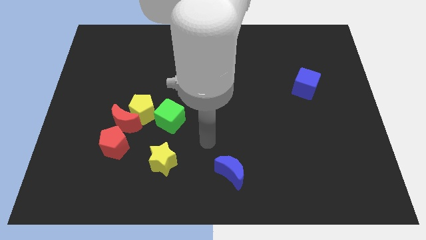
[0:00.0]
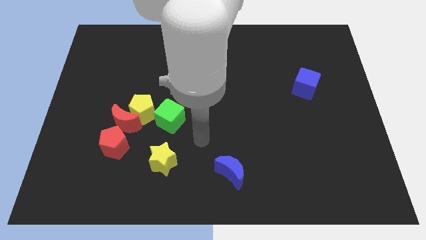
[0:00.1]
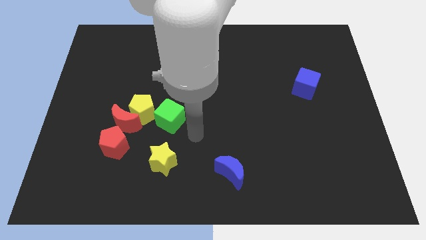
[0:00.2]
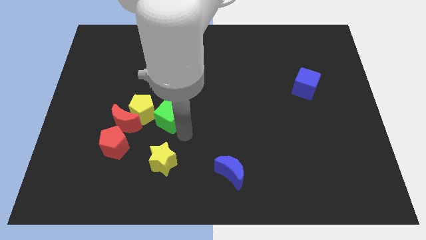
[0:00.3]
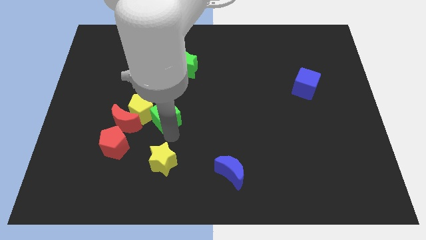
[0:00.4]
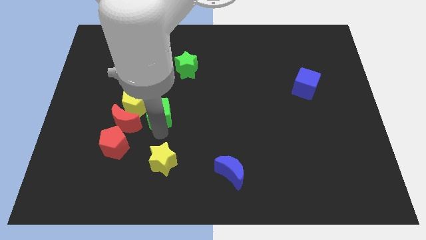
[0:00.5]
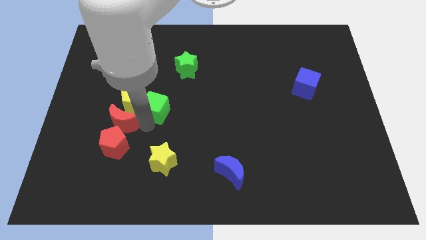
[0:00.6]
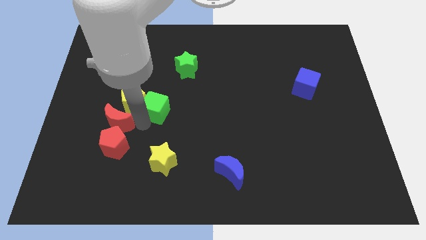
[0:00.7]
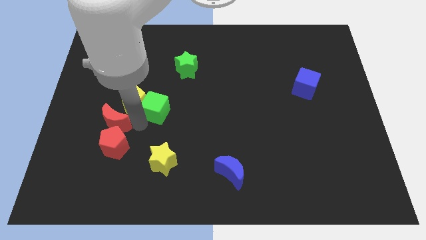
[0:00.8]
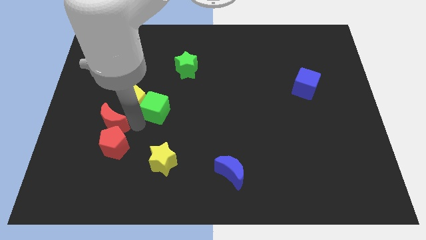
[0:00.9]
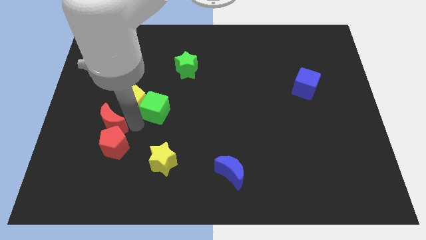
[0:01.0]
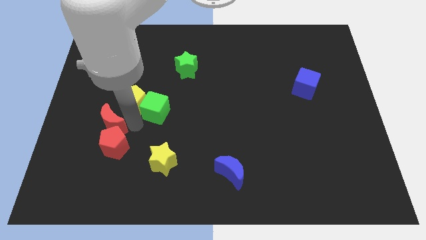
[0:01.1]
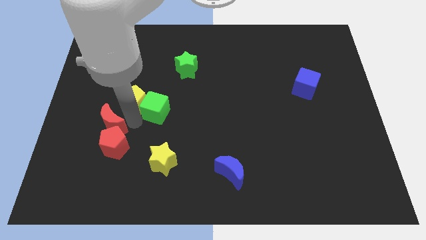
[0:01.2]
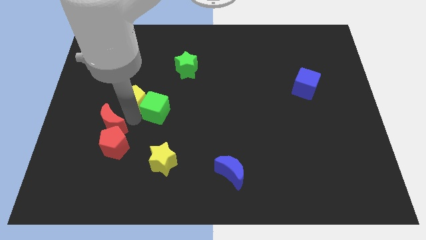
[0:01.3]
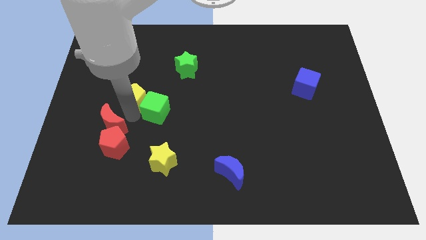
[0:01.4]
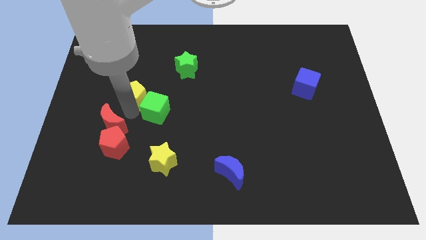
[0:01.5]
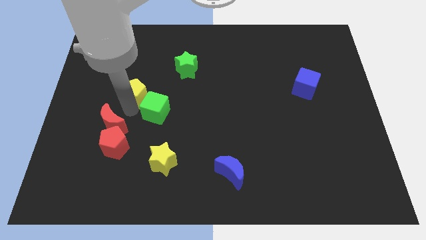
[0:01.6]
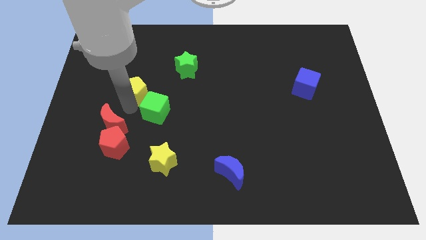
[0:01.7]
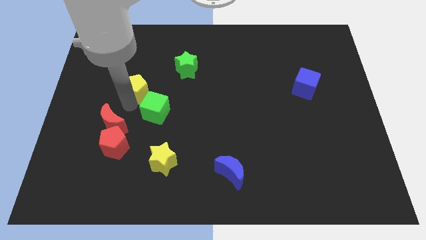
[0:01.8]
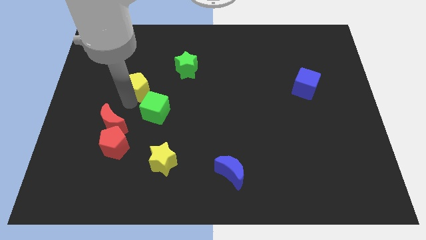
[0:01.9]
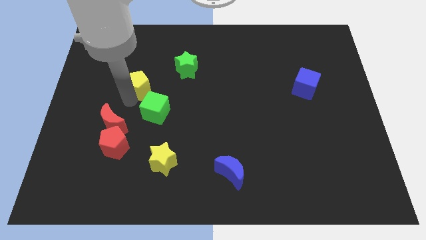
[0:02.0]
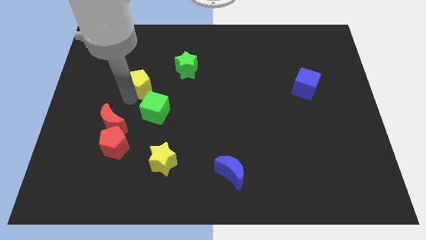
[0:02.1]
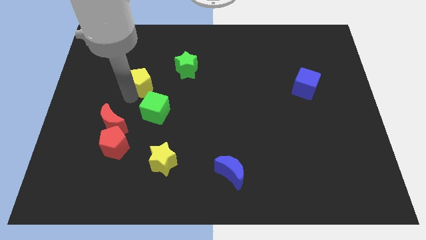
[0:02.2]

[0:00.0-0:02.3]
move the yellow pentagon away from the red moon and green cube

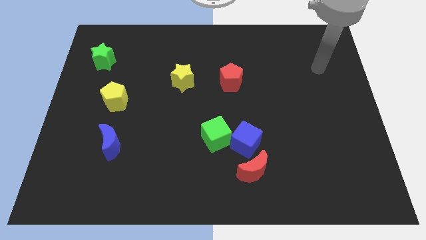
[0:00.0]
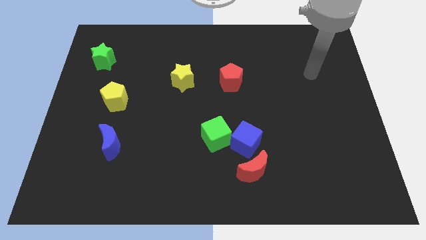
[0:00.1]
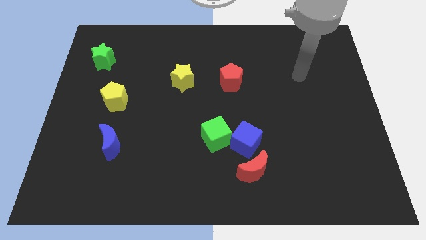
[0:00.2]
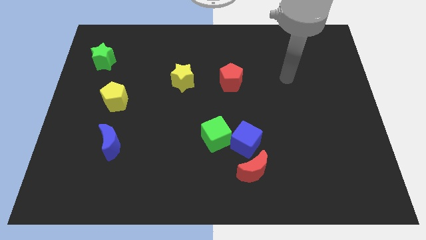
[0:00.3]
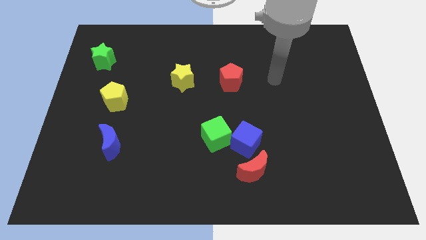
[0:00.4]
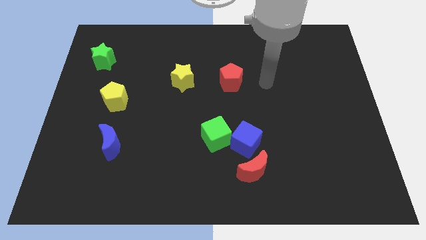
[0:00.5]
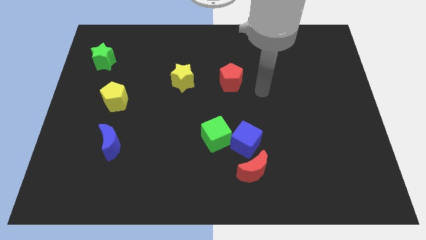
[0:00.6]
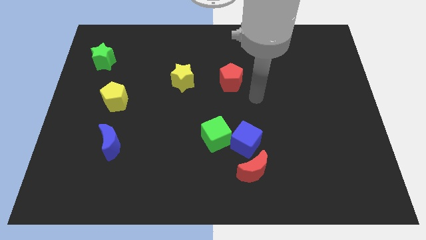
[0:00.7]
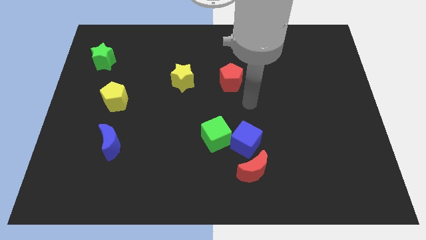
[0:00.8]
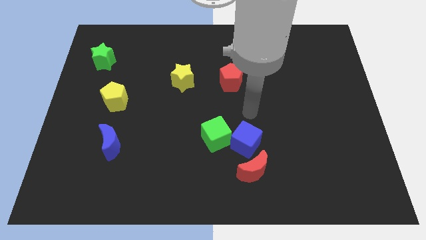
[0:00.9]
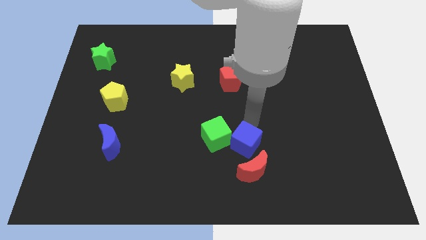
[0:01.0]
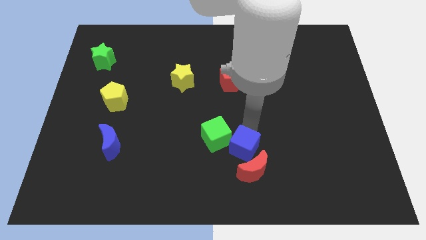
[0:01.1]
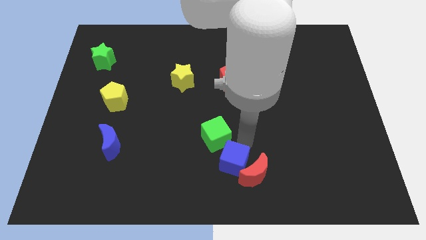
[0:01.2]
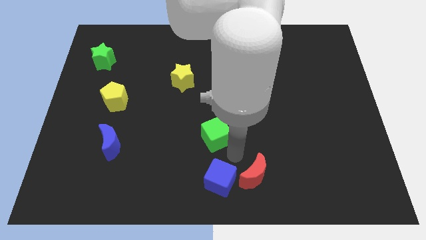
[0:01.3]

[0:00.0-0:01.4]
move the green cube away from the blue cube

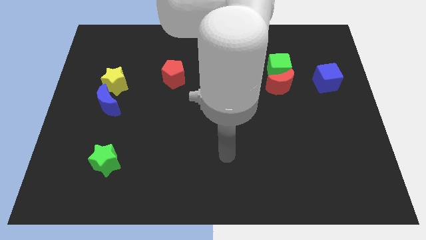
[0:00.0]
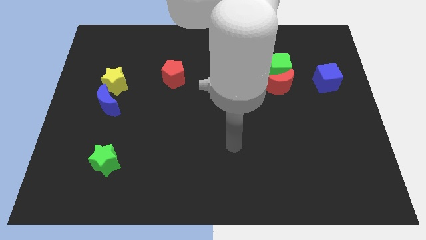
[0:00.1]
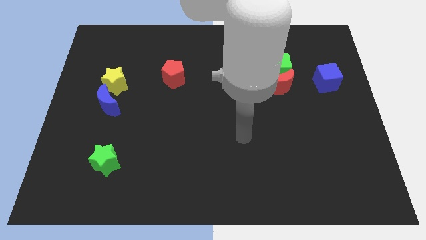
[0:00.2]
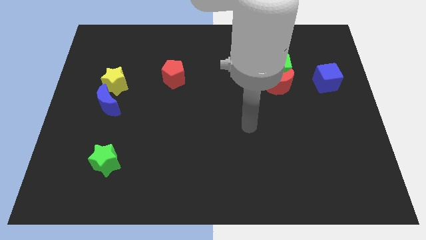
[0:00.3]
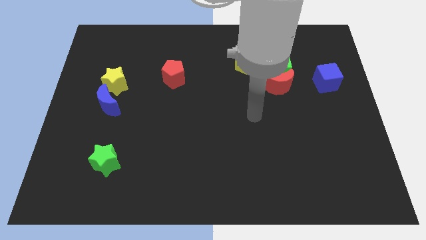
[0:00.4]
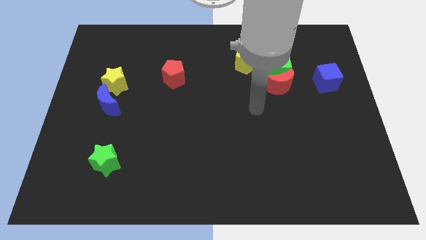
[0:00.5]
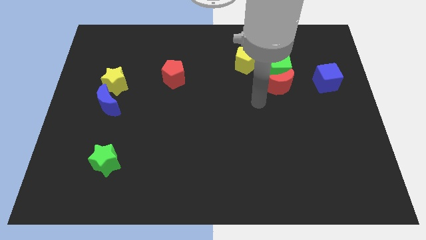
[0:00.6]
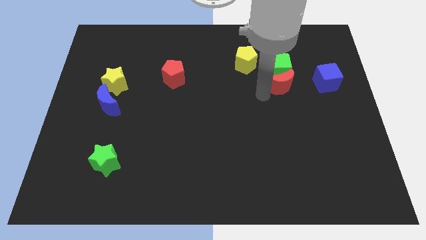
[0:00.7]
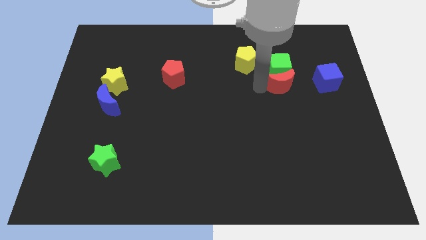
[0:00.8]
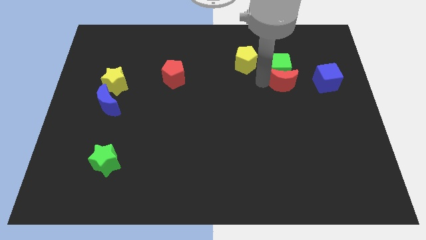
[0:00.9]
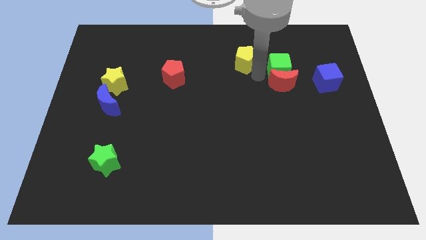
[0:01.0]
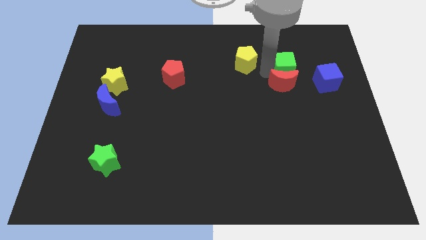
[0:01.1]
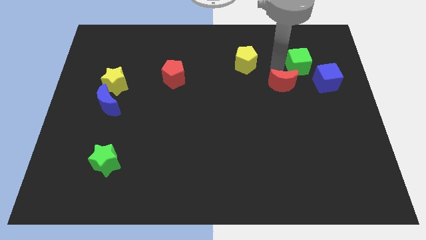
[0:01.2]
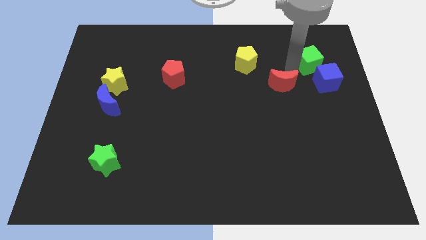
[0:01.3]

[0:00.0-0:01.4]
move the red moon away from the green cube

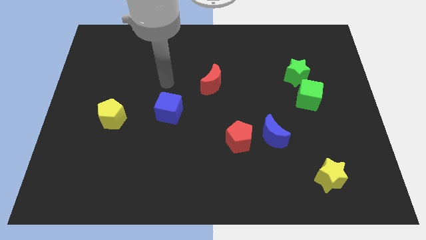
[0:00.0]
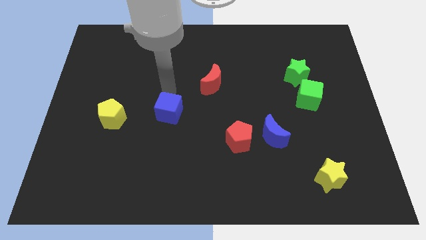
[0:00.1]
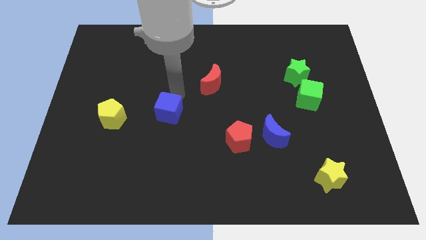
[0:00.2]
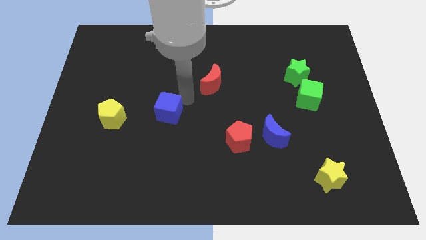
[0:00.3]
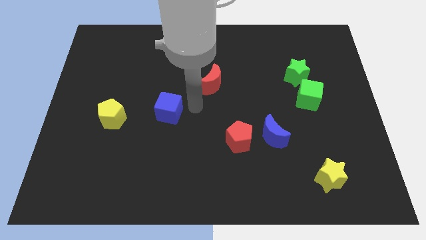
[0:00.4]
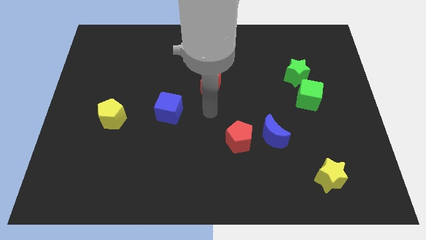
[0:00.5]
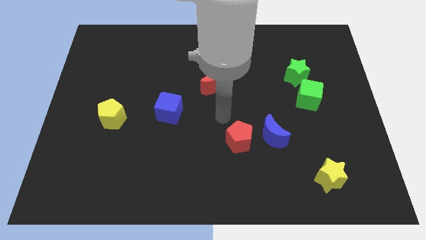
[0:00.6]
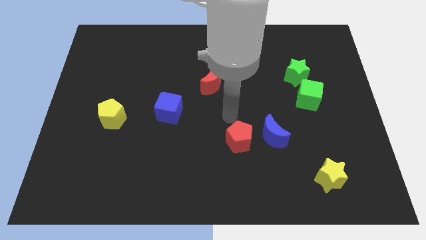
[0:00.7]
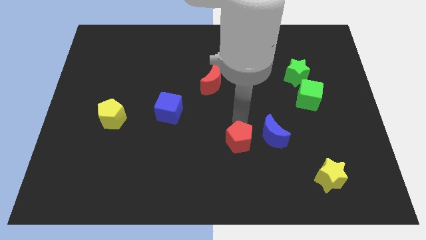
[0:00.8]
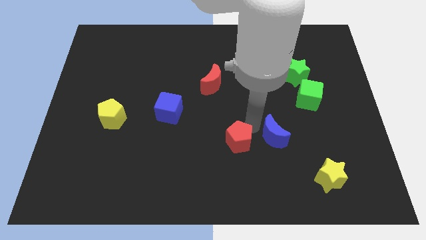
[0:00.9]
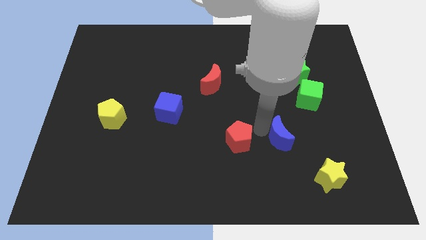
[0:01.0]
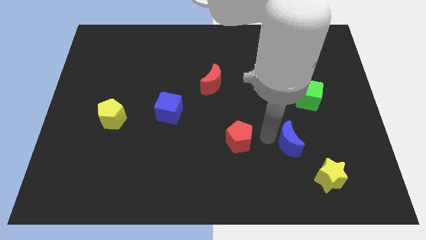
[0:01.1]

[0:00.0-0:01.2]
pull the red pentagon apart from the blue moon

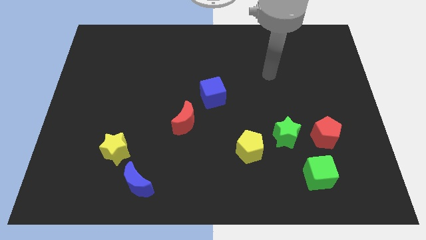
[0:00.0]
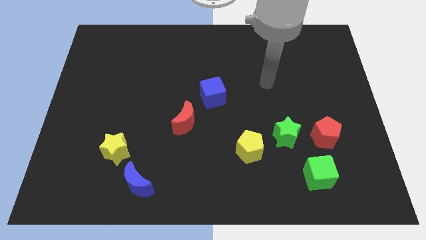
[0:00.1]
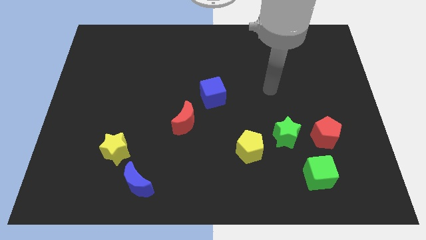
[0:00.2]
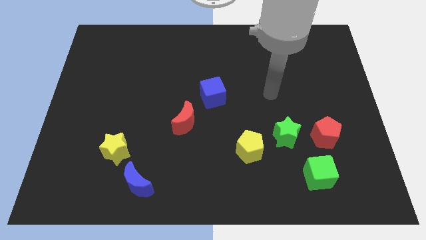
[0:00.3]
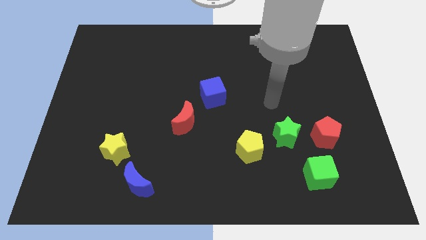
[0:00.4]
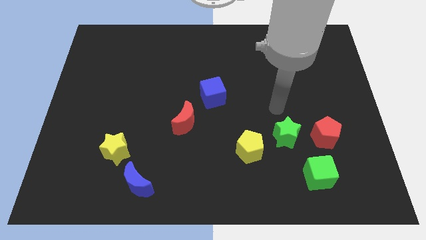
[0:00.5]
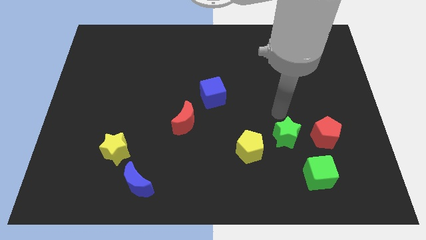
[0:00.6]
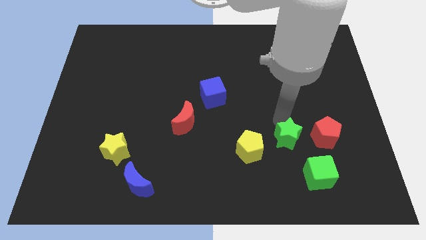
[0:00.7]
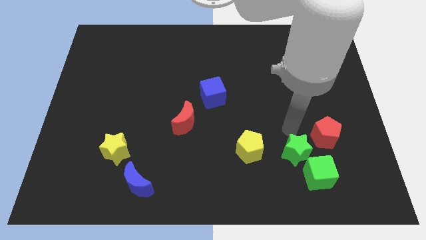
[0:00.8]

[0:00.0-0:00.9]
move the yellow pentagon away from the green star

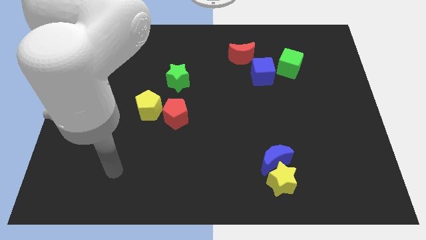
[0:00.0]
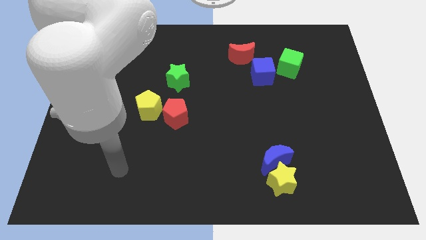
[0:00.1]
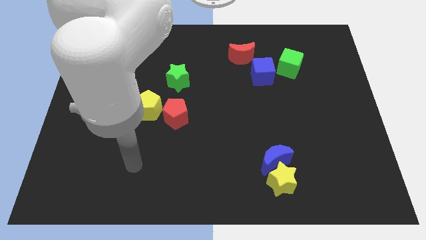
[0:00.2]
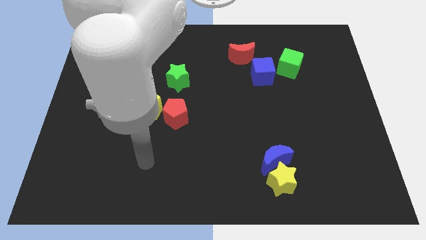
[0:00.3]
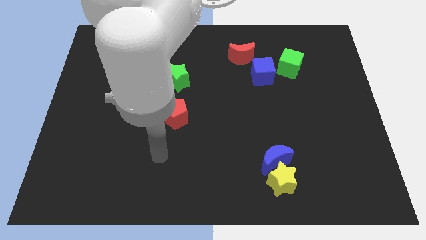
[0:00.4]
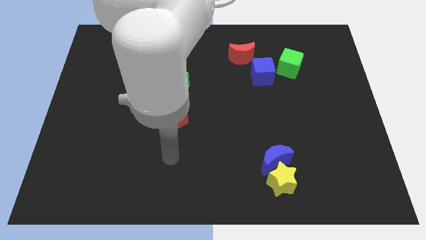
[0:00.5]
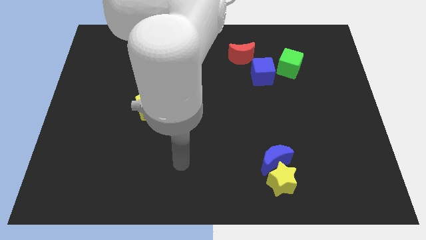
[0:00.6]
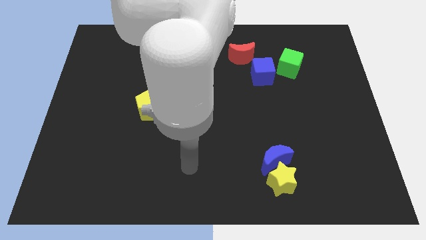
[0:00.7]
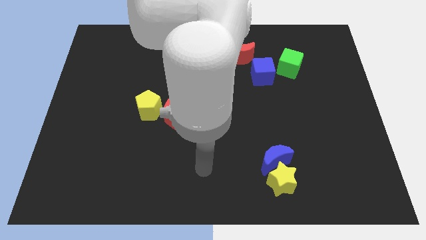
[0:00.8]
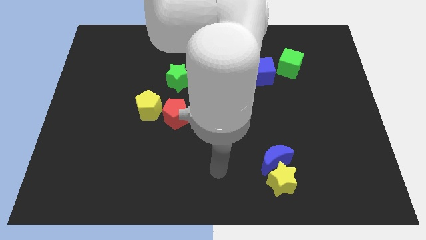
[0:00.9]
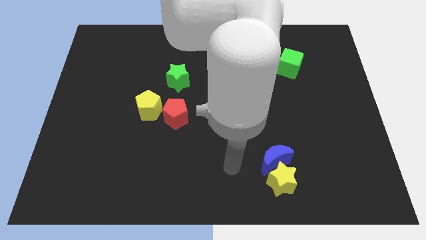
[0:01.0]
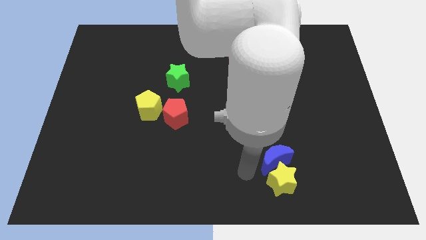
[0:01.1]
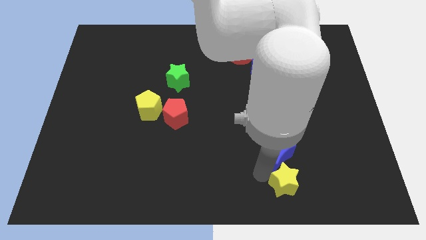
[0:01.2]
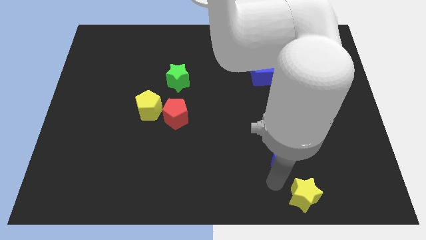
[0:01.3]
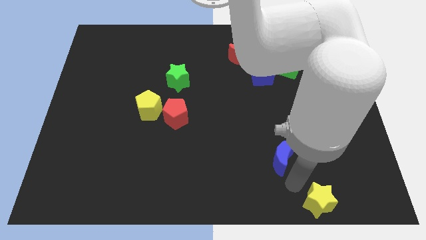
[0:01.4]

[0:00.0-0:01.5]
pull the blue moon apart from the yellow star

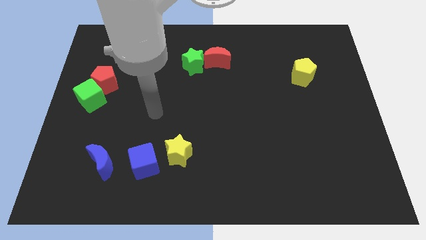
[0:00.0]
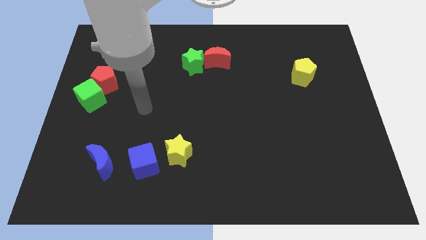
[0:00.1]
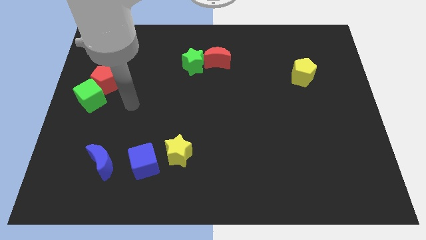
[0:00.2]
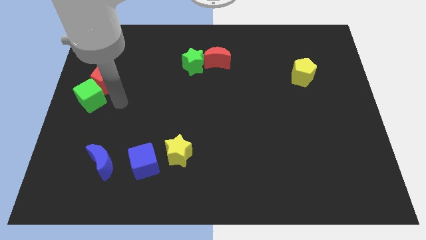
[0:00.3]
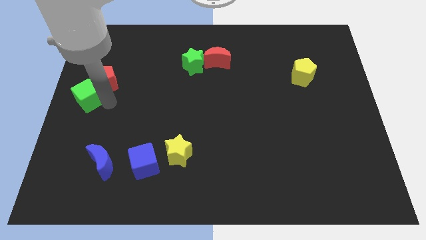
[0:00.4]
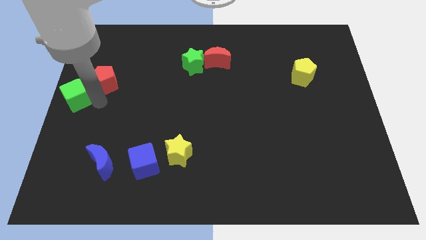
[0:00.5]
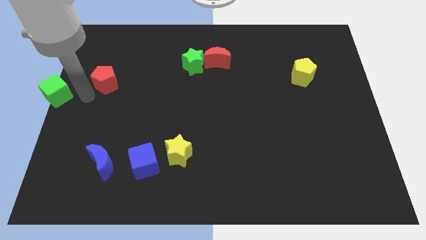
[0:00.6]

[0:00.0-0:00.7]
separate the red pentagon from the green cube
